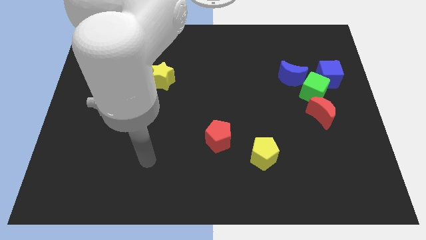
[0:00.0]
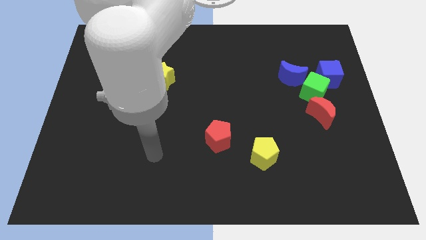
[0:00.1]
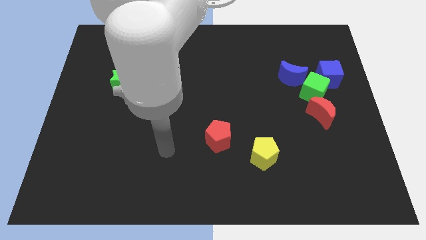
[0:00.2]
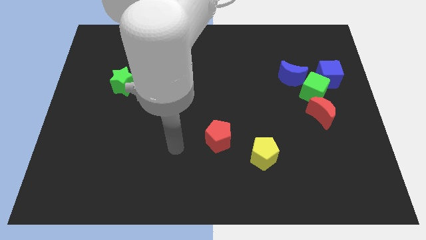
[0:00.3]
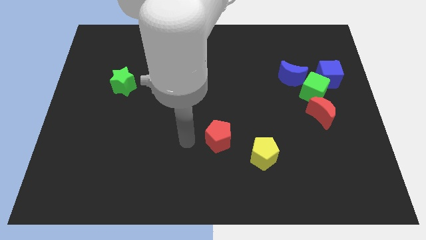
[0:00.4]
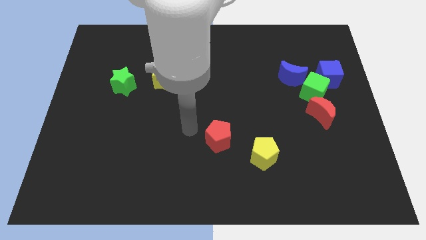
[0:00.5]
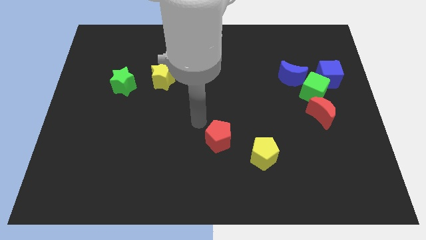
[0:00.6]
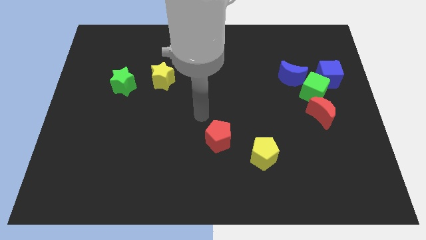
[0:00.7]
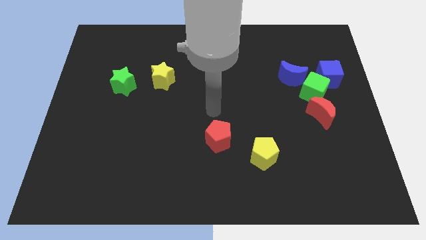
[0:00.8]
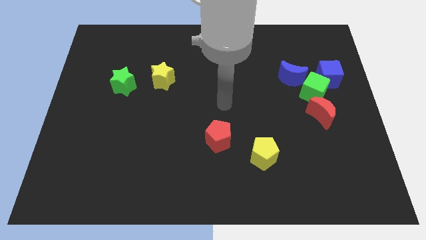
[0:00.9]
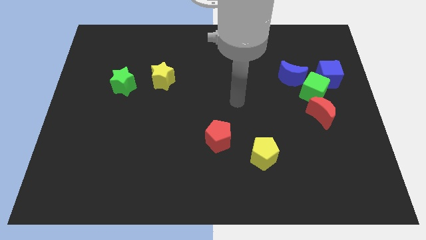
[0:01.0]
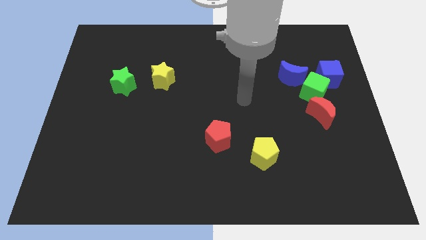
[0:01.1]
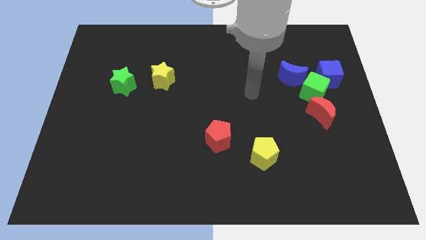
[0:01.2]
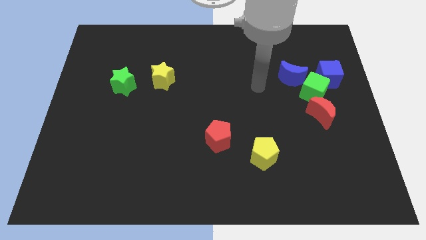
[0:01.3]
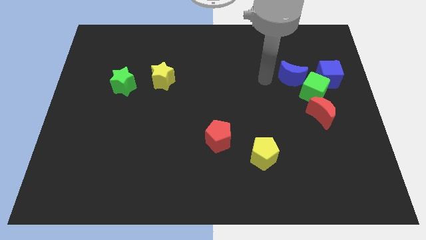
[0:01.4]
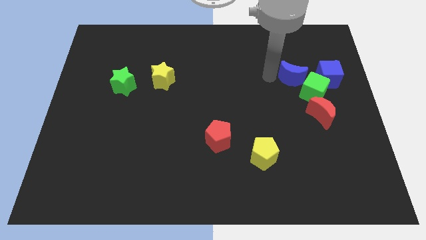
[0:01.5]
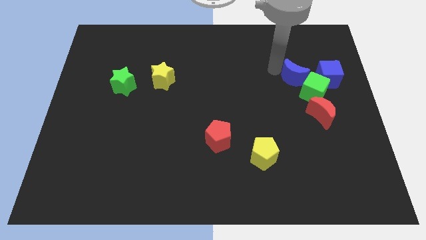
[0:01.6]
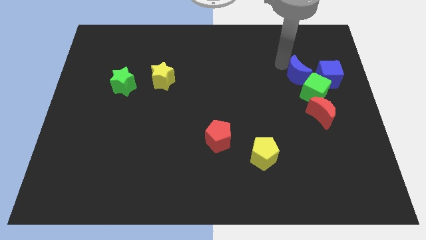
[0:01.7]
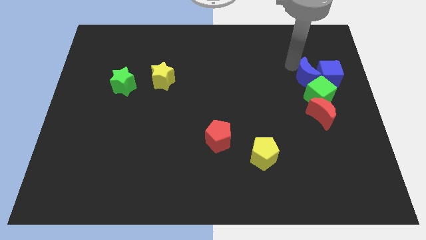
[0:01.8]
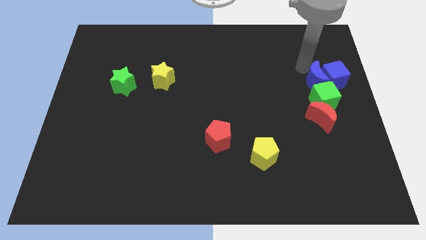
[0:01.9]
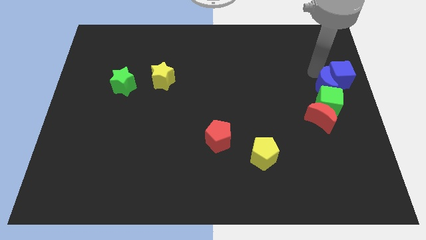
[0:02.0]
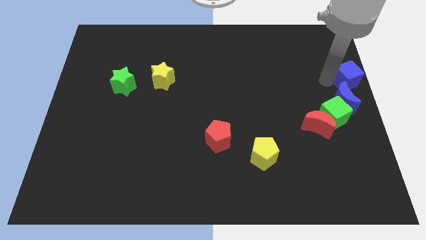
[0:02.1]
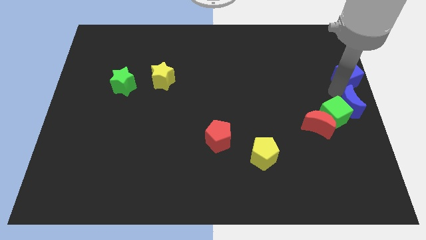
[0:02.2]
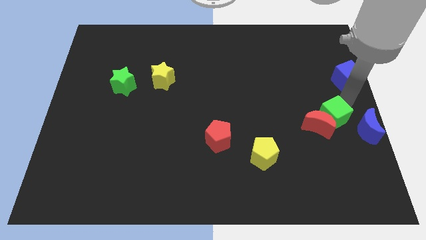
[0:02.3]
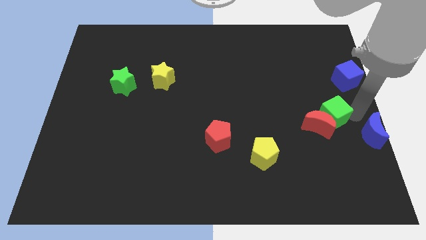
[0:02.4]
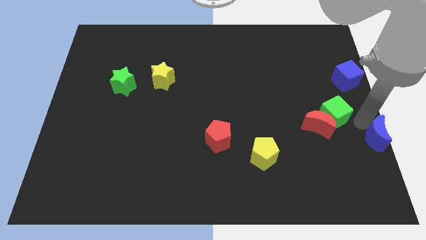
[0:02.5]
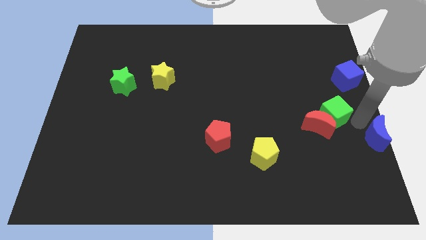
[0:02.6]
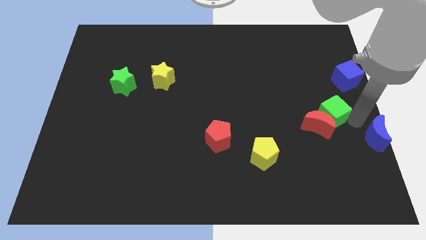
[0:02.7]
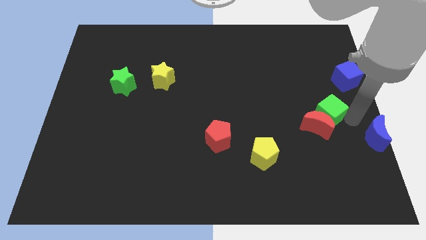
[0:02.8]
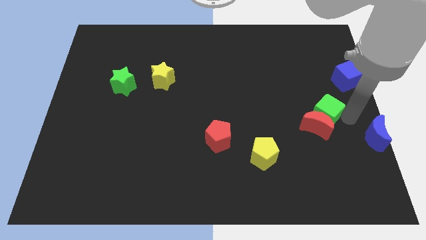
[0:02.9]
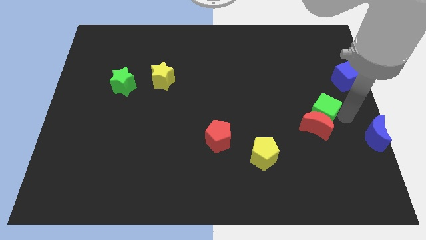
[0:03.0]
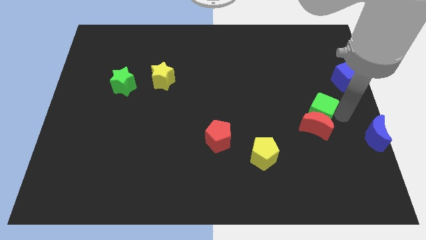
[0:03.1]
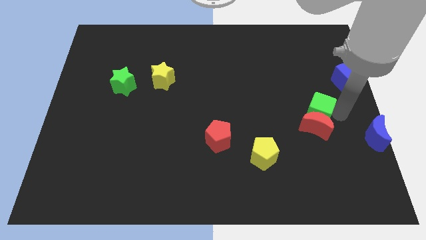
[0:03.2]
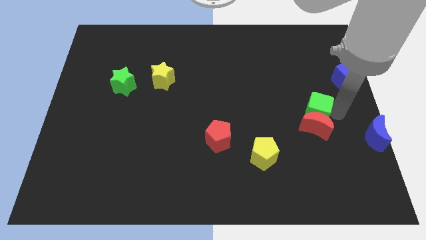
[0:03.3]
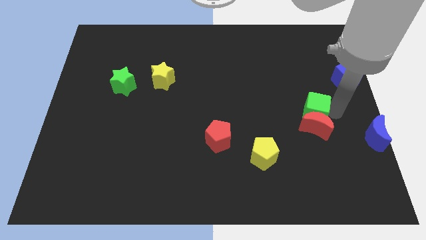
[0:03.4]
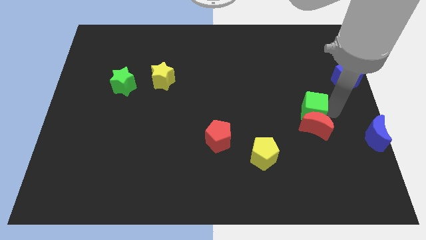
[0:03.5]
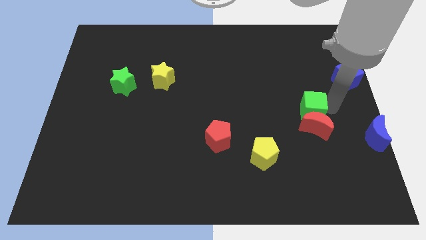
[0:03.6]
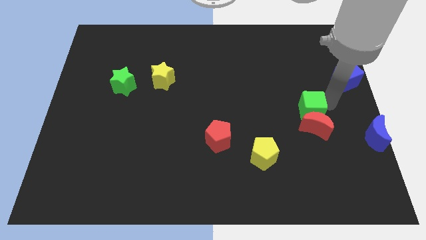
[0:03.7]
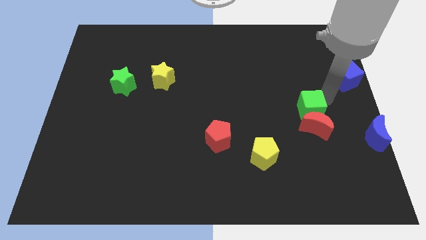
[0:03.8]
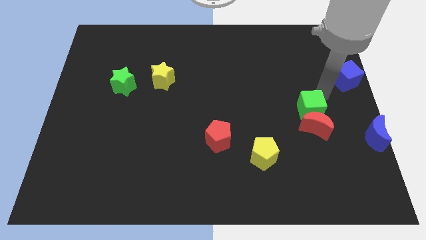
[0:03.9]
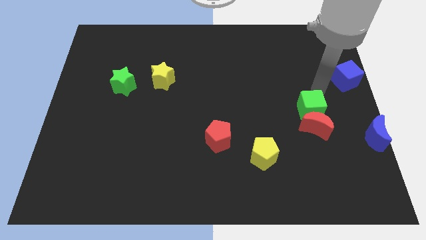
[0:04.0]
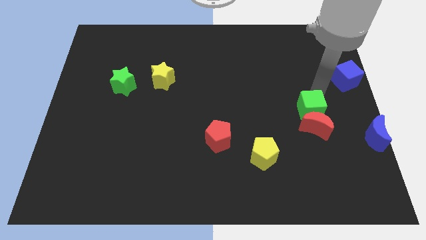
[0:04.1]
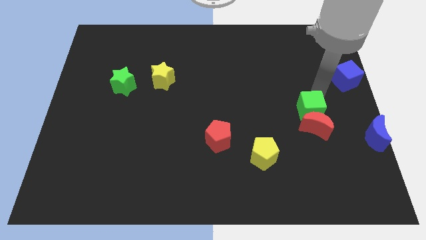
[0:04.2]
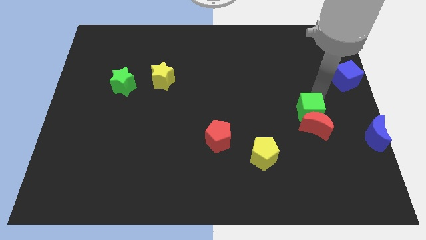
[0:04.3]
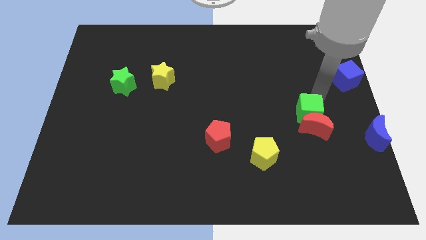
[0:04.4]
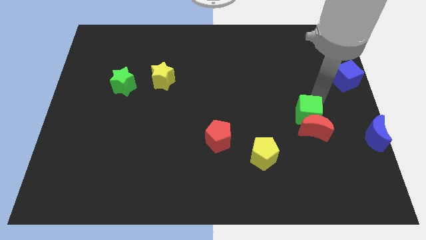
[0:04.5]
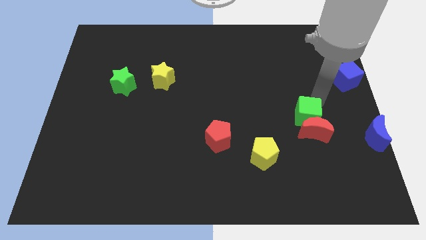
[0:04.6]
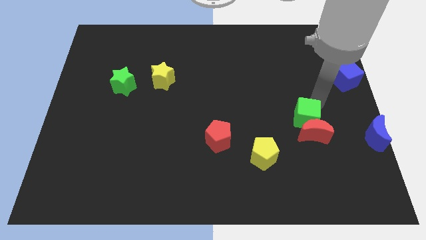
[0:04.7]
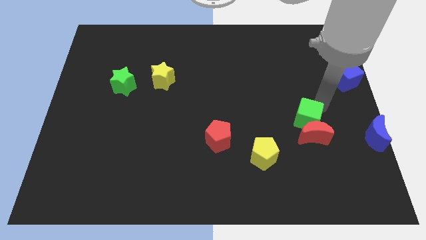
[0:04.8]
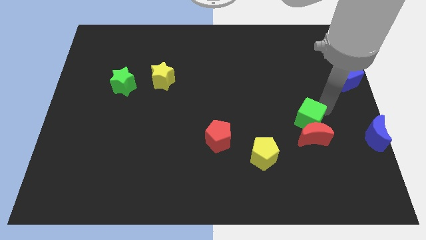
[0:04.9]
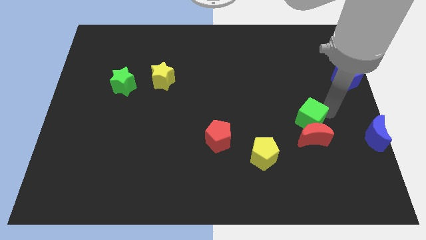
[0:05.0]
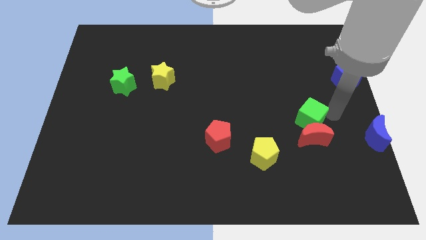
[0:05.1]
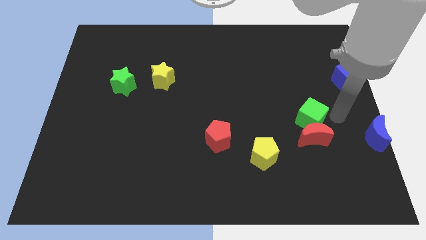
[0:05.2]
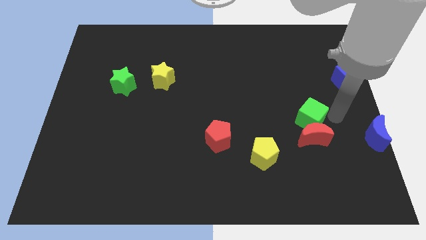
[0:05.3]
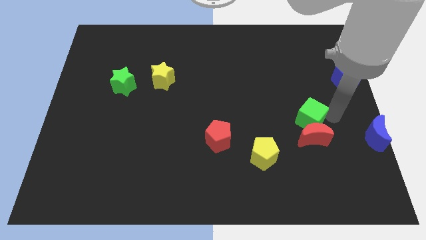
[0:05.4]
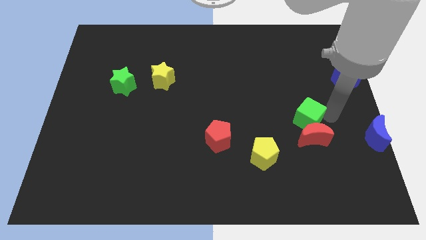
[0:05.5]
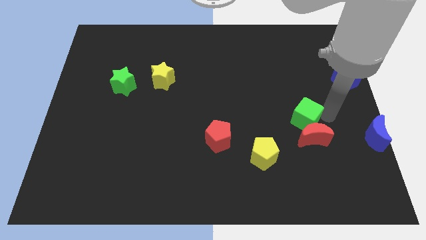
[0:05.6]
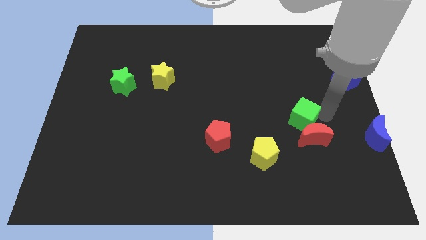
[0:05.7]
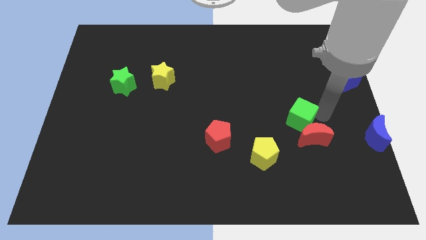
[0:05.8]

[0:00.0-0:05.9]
separate the green cube from the group of blocks

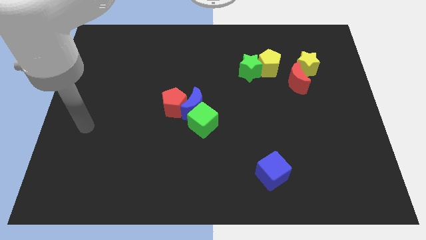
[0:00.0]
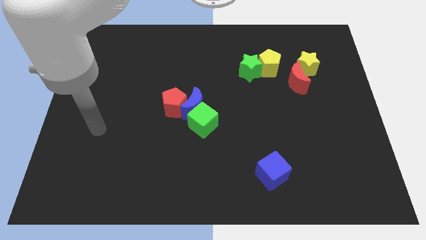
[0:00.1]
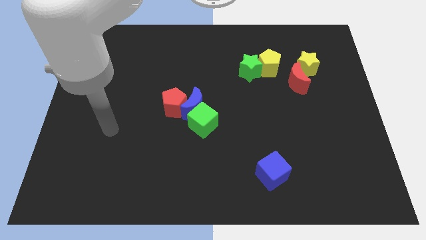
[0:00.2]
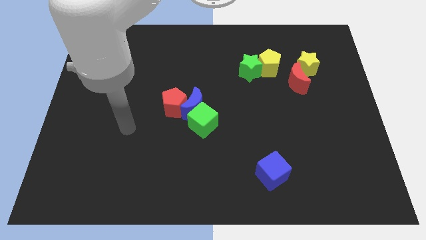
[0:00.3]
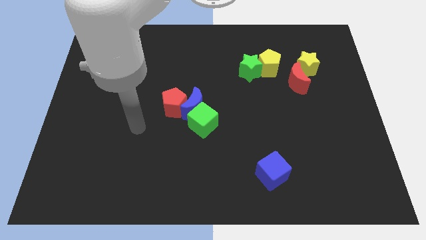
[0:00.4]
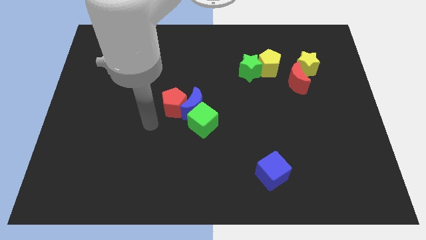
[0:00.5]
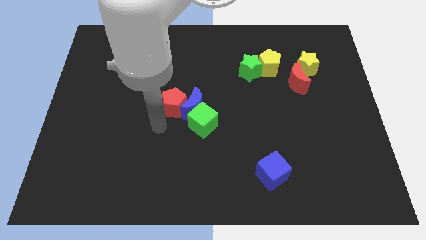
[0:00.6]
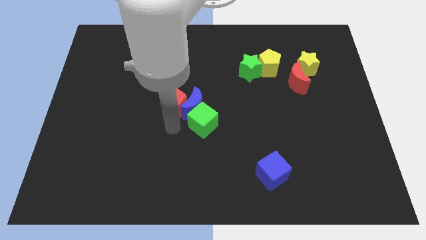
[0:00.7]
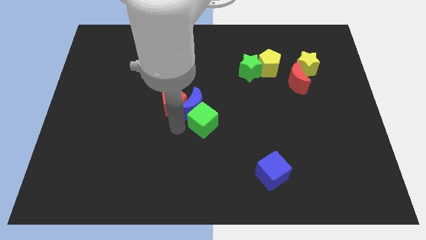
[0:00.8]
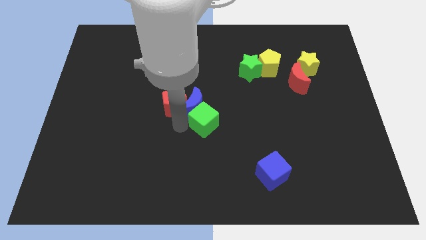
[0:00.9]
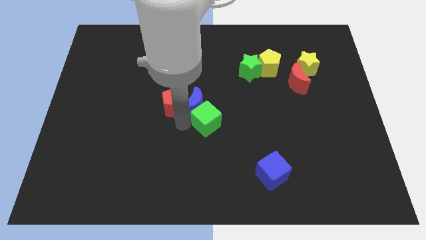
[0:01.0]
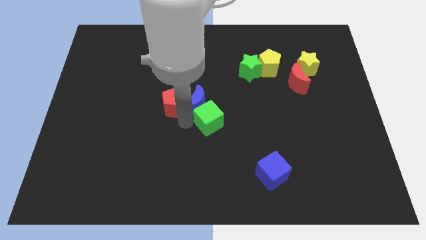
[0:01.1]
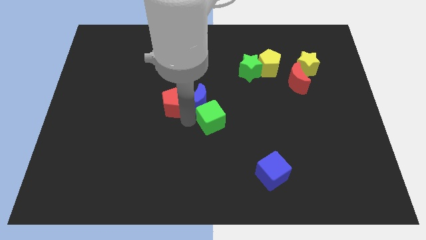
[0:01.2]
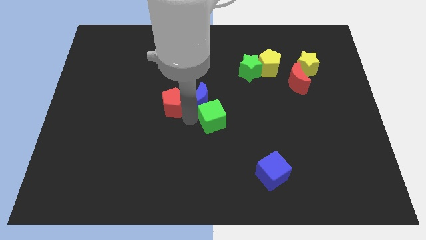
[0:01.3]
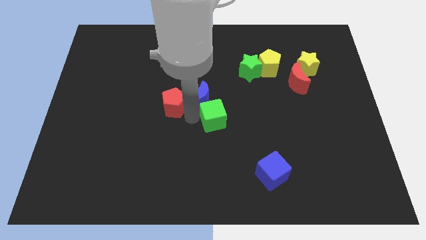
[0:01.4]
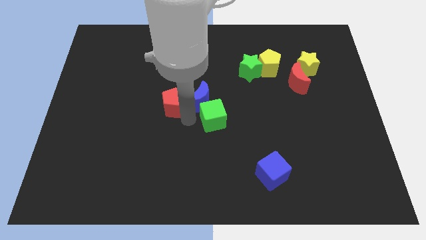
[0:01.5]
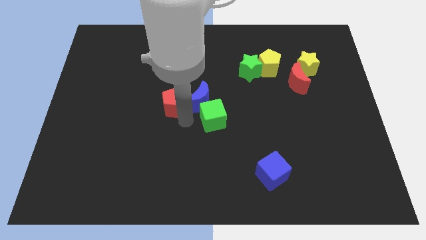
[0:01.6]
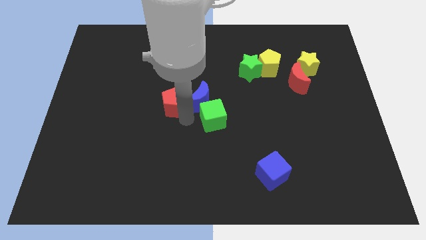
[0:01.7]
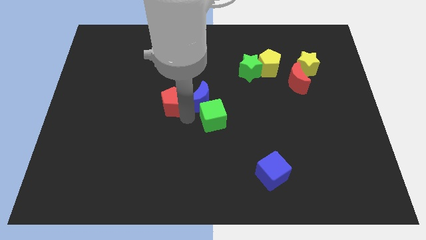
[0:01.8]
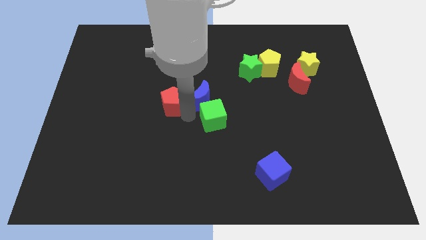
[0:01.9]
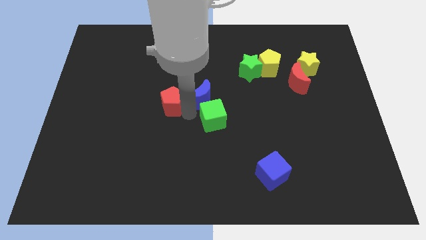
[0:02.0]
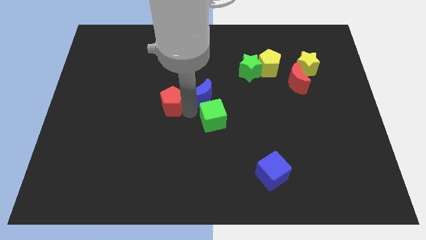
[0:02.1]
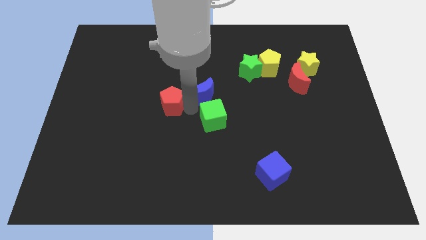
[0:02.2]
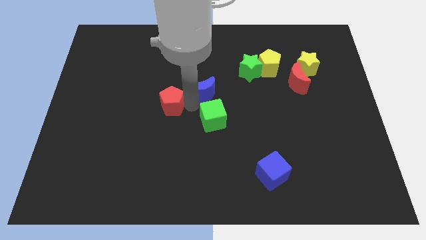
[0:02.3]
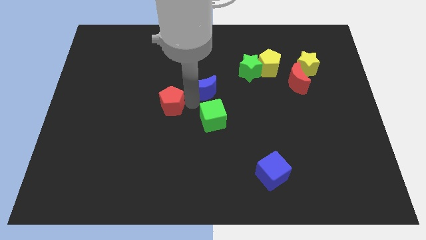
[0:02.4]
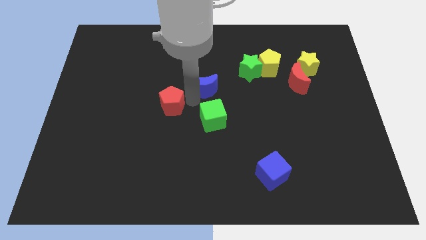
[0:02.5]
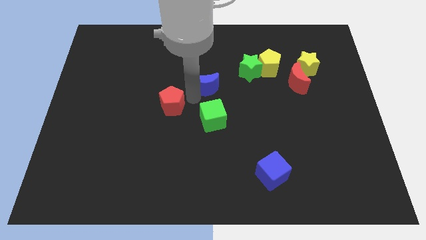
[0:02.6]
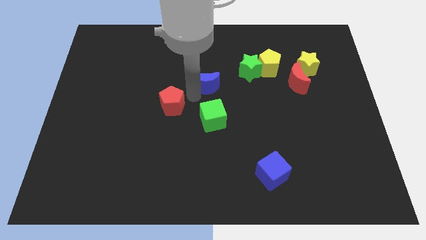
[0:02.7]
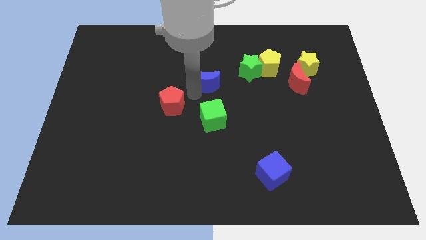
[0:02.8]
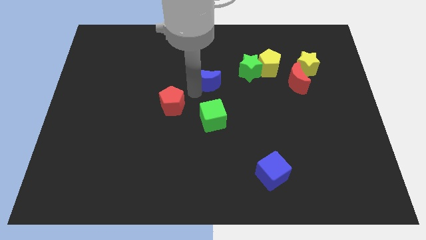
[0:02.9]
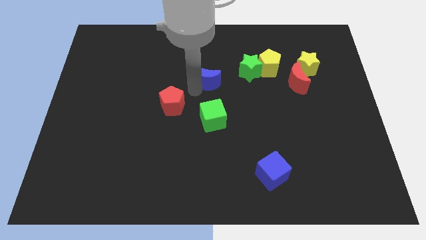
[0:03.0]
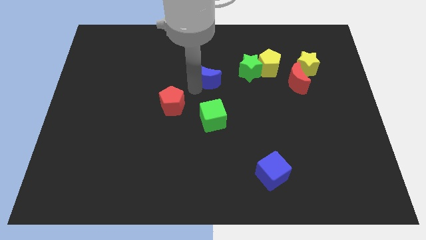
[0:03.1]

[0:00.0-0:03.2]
separate the blue moon from the red pentagon and green cube

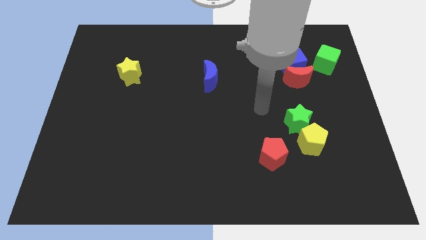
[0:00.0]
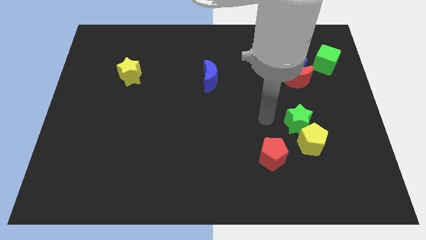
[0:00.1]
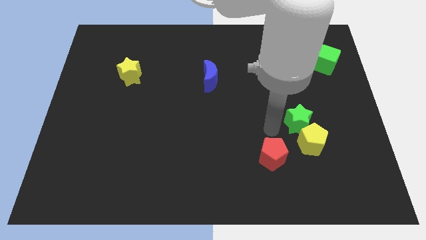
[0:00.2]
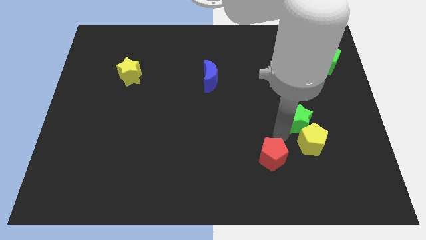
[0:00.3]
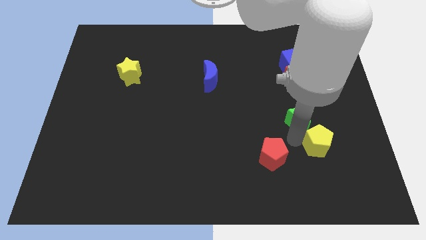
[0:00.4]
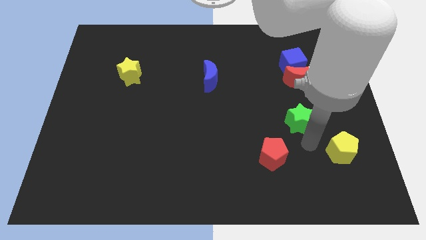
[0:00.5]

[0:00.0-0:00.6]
move the green star away from the yellow pentagon
